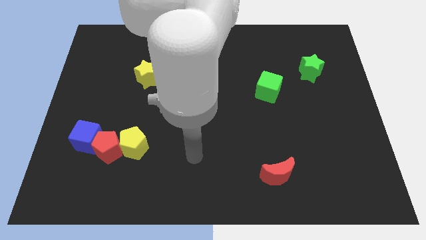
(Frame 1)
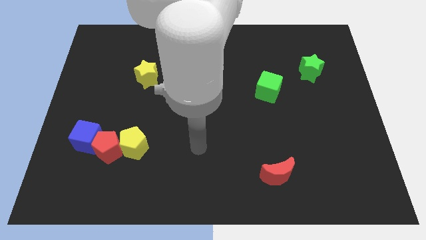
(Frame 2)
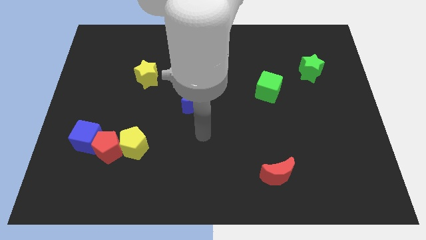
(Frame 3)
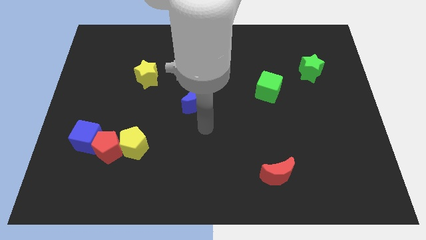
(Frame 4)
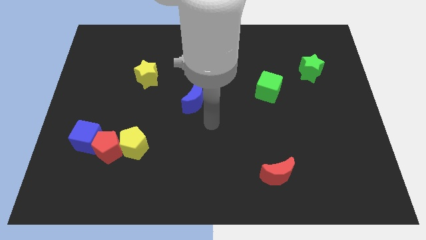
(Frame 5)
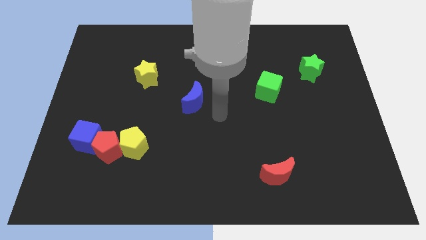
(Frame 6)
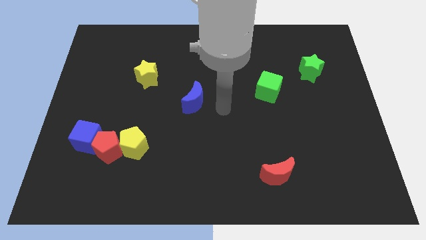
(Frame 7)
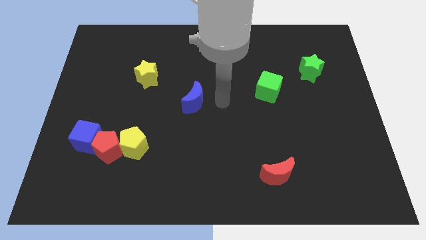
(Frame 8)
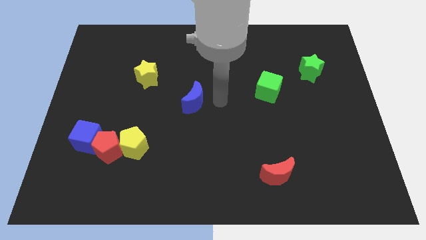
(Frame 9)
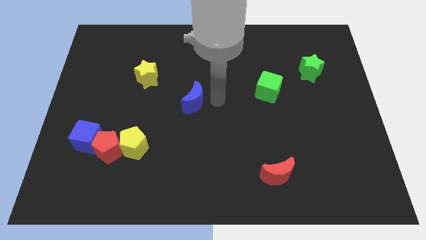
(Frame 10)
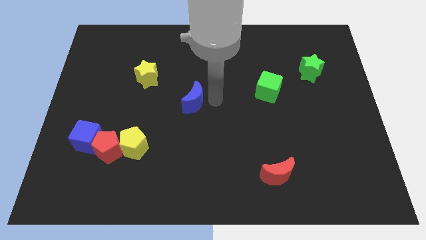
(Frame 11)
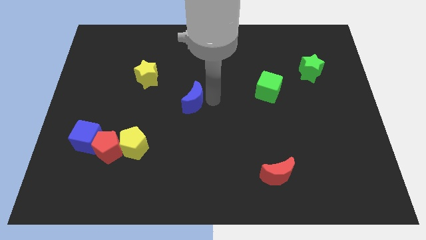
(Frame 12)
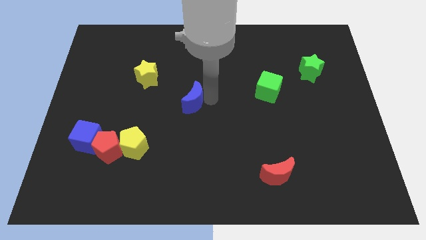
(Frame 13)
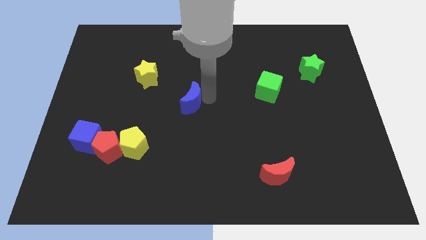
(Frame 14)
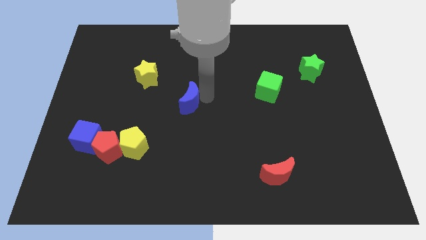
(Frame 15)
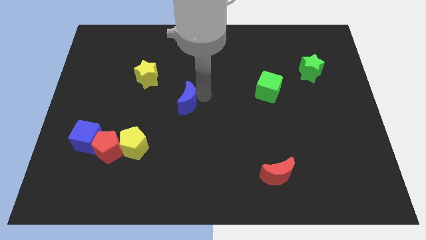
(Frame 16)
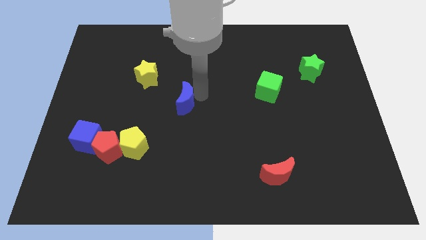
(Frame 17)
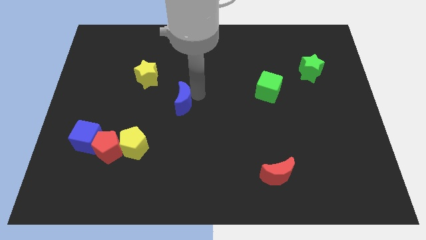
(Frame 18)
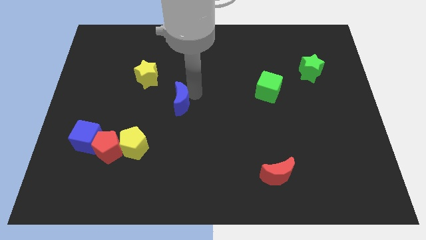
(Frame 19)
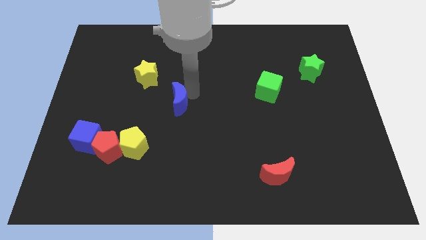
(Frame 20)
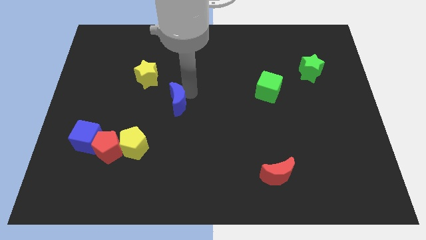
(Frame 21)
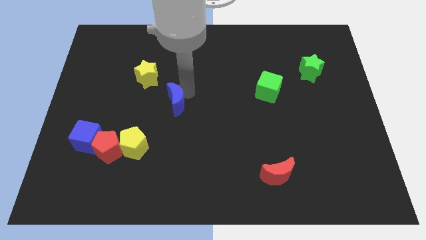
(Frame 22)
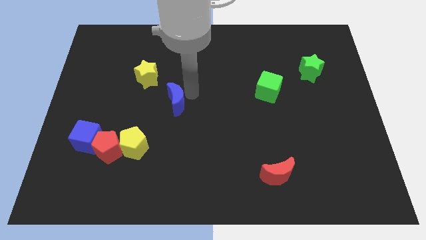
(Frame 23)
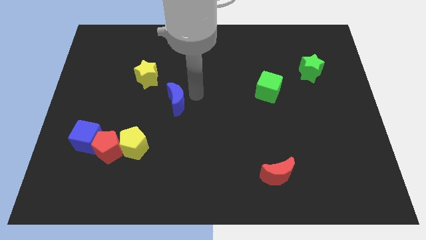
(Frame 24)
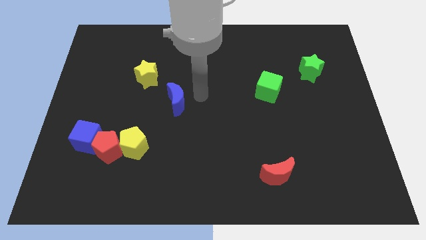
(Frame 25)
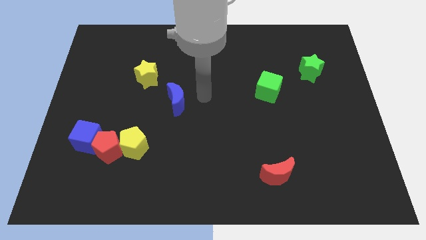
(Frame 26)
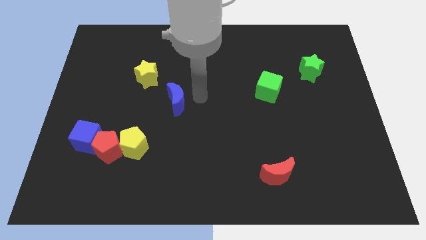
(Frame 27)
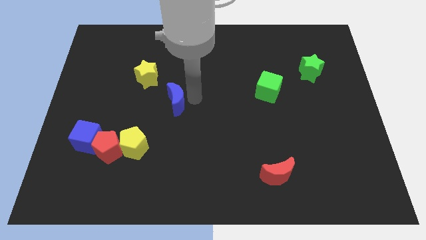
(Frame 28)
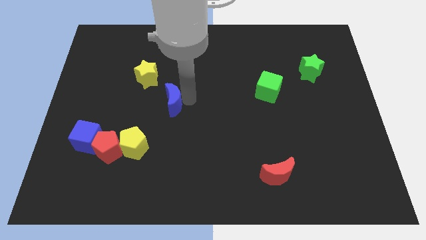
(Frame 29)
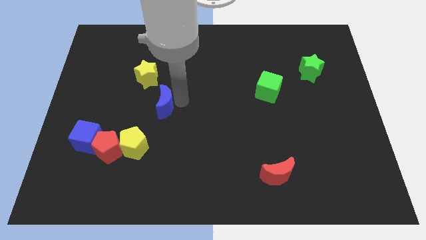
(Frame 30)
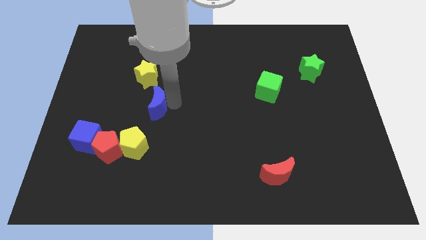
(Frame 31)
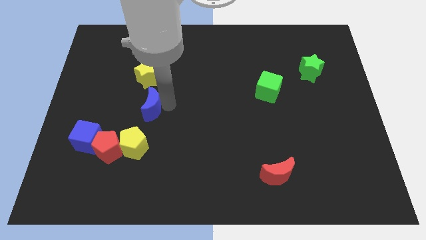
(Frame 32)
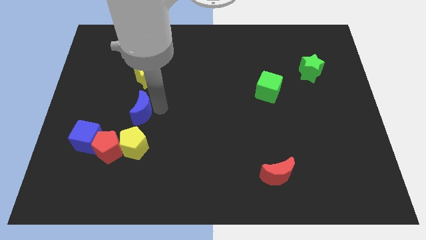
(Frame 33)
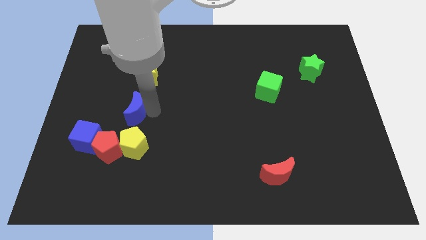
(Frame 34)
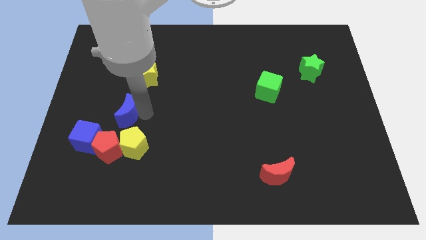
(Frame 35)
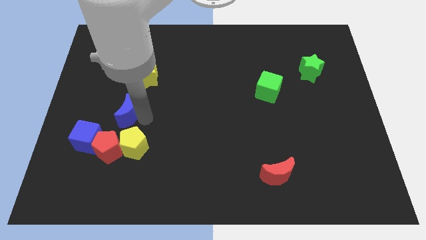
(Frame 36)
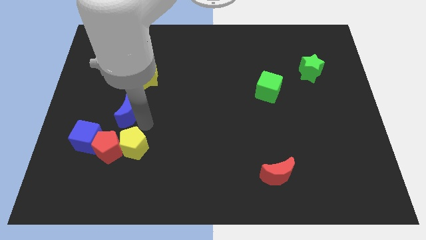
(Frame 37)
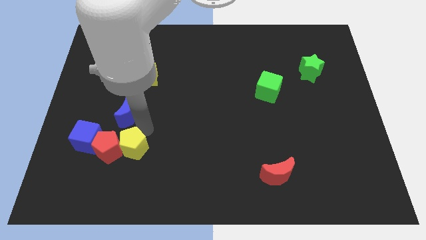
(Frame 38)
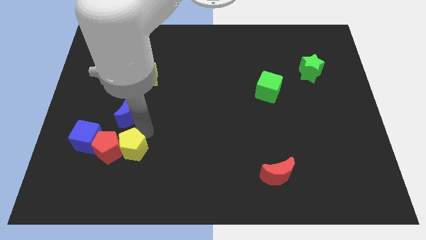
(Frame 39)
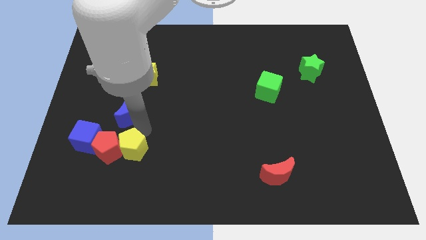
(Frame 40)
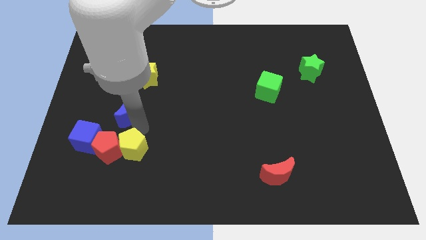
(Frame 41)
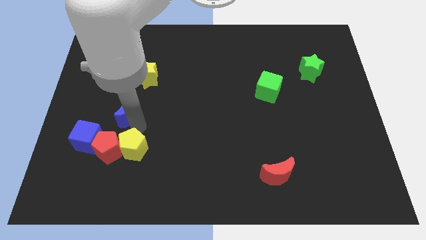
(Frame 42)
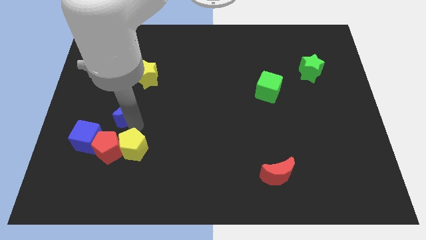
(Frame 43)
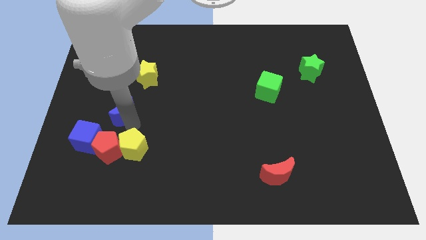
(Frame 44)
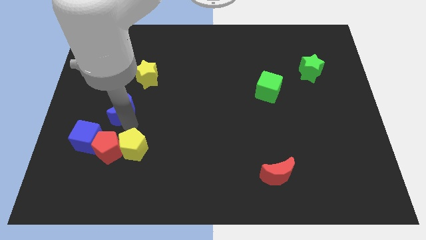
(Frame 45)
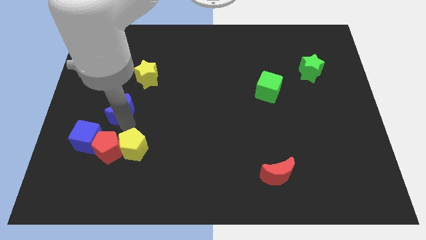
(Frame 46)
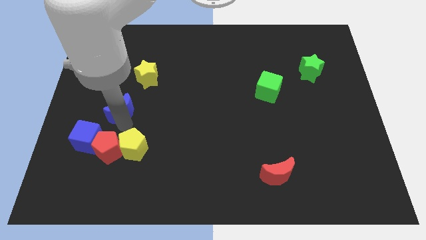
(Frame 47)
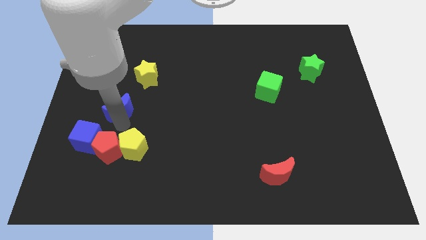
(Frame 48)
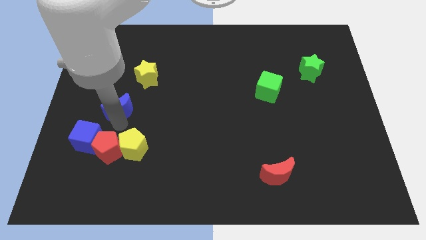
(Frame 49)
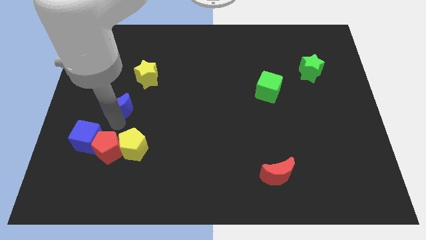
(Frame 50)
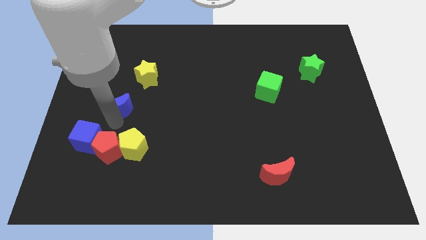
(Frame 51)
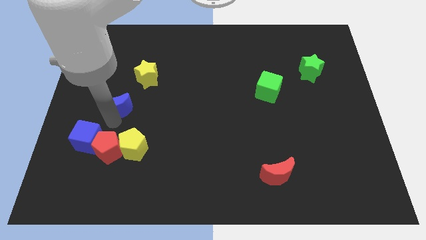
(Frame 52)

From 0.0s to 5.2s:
slide the blue moon to the top of the blue cube

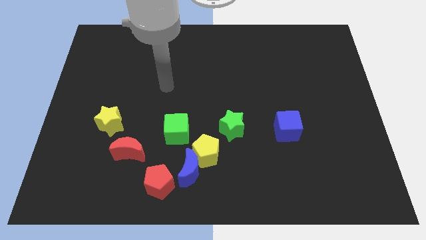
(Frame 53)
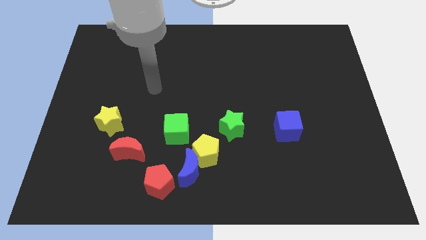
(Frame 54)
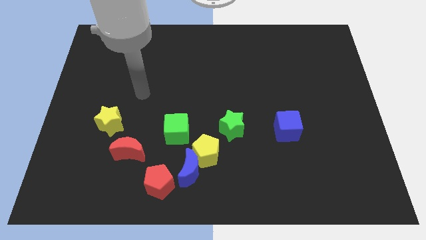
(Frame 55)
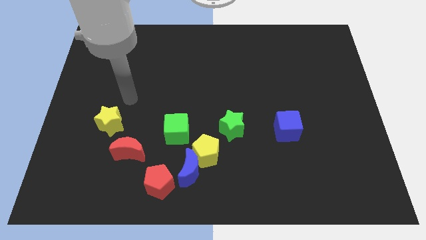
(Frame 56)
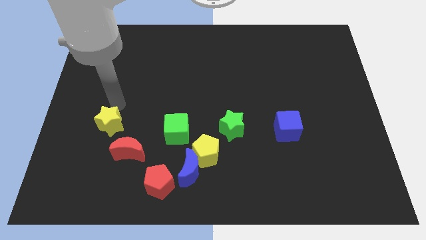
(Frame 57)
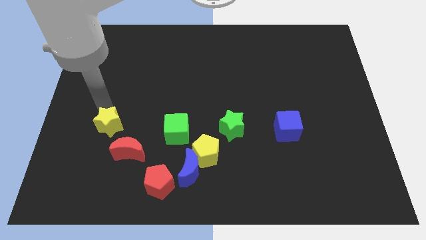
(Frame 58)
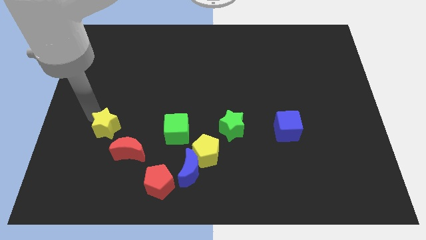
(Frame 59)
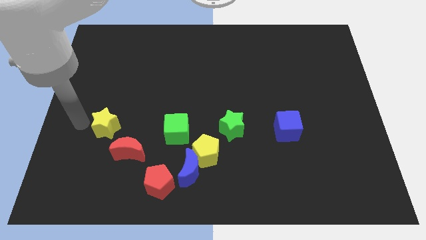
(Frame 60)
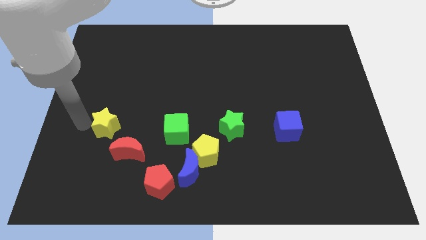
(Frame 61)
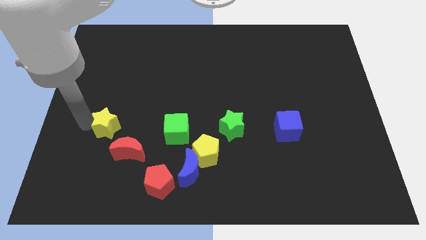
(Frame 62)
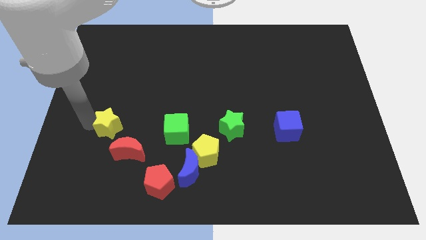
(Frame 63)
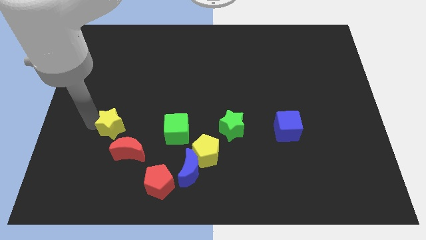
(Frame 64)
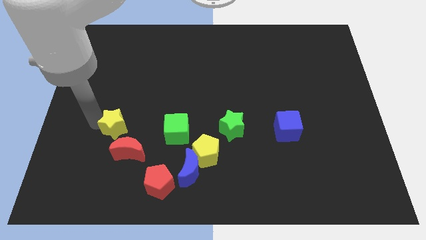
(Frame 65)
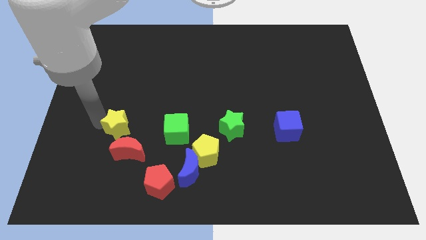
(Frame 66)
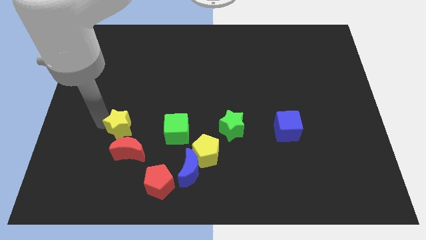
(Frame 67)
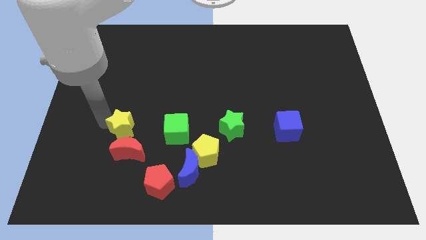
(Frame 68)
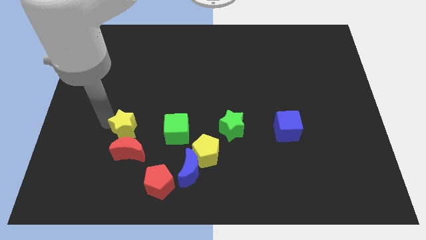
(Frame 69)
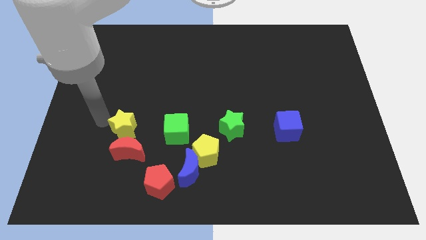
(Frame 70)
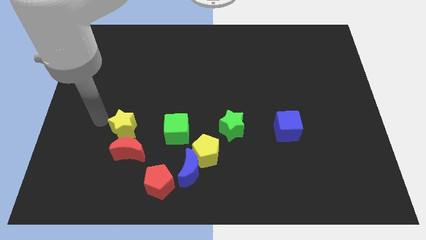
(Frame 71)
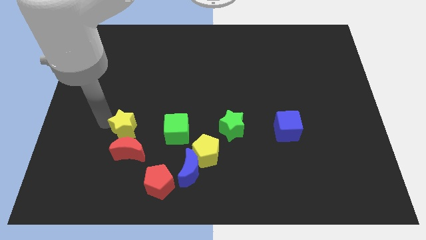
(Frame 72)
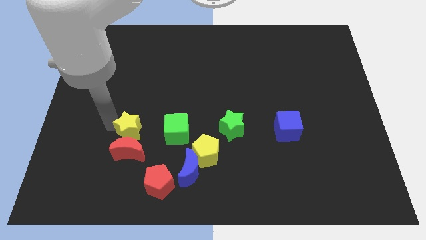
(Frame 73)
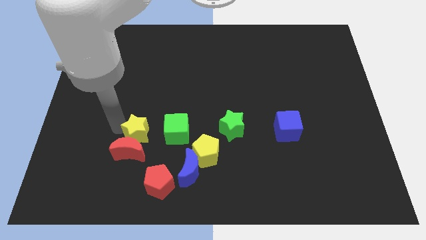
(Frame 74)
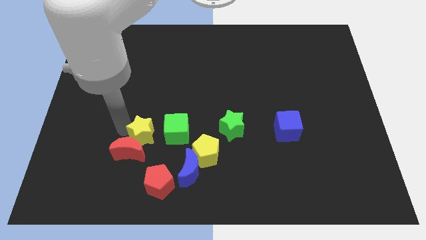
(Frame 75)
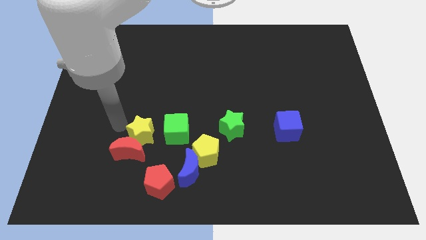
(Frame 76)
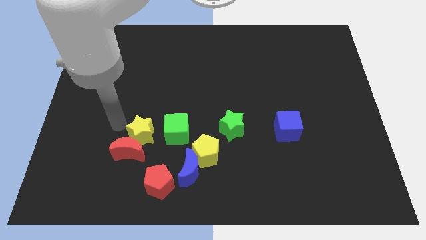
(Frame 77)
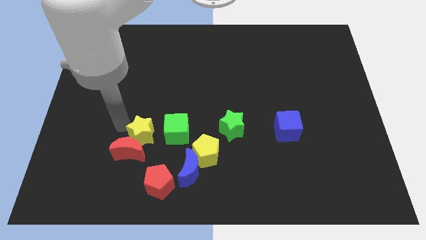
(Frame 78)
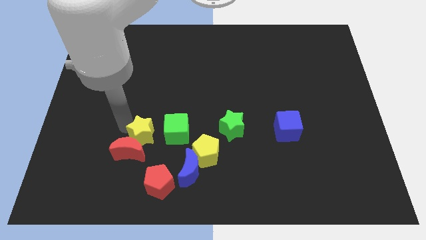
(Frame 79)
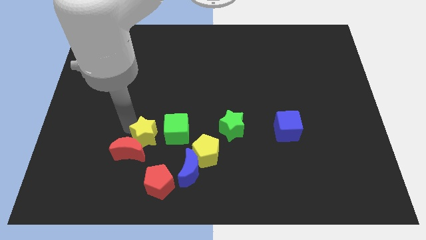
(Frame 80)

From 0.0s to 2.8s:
push the yellow star right of the red moon
